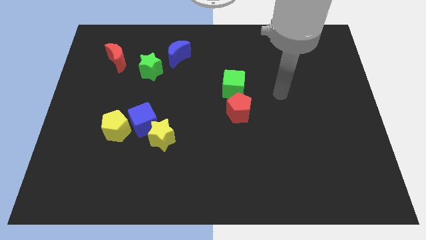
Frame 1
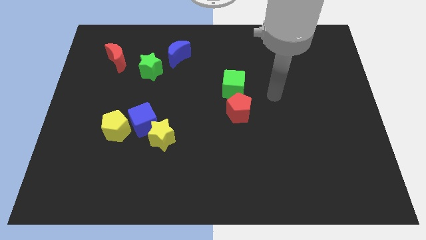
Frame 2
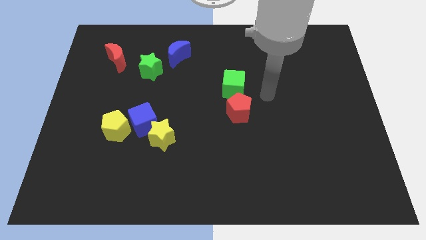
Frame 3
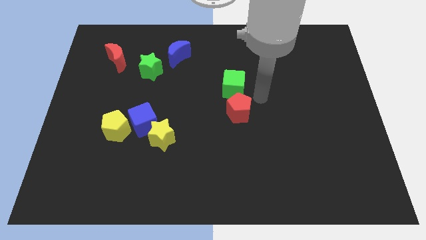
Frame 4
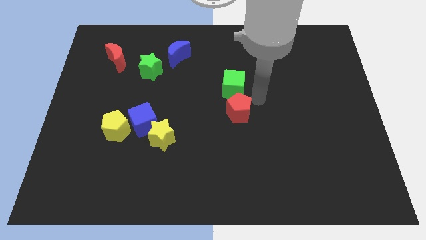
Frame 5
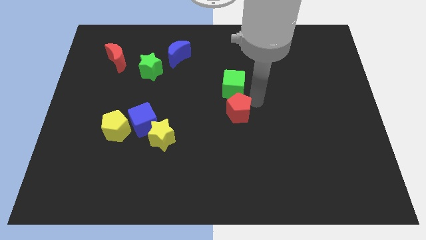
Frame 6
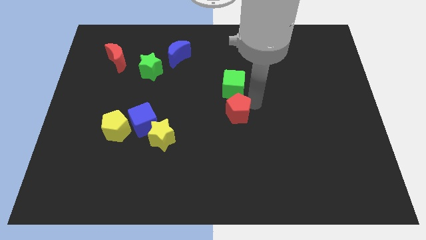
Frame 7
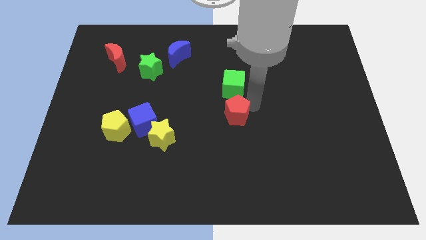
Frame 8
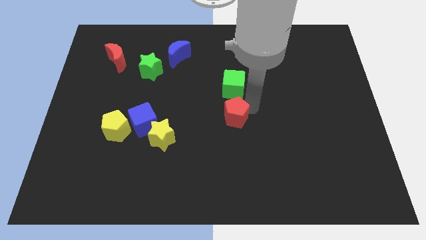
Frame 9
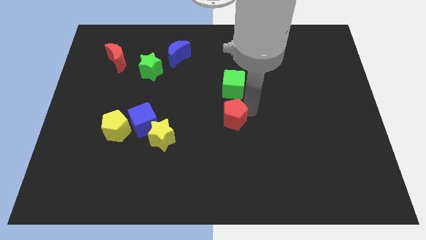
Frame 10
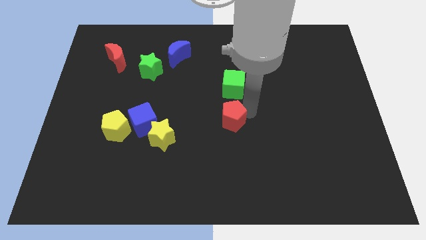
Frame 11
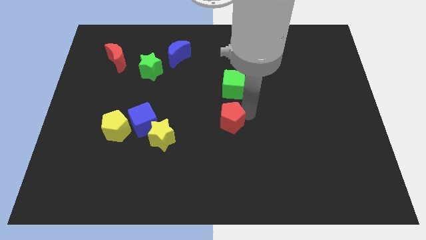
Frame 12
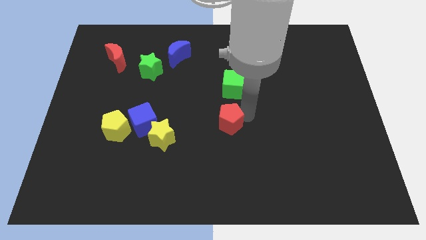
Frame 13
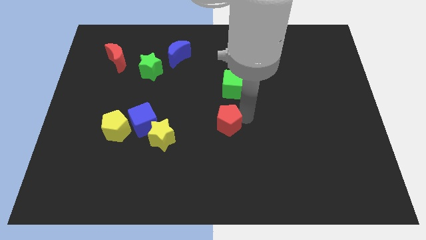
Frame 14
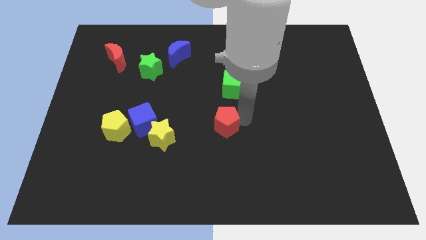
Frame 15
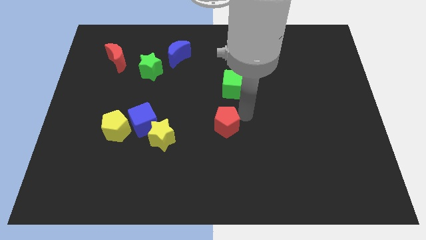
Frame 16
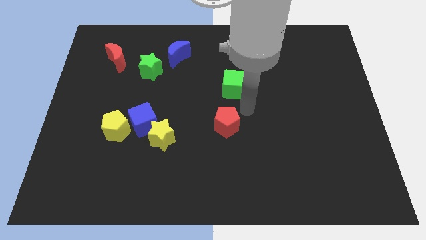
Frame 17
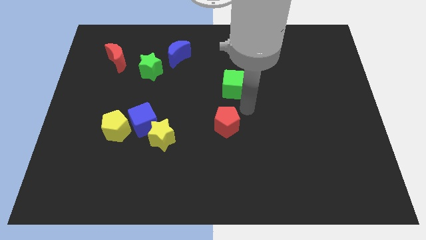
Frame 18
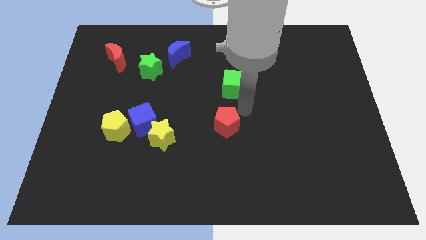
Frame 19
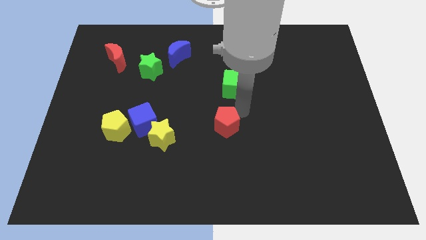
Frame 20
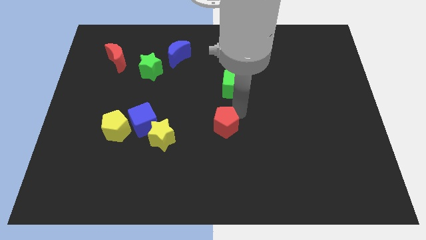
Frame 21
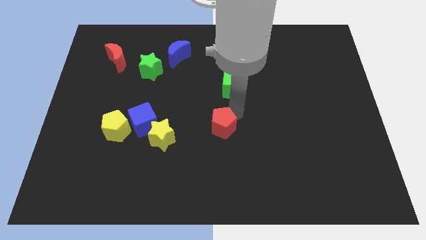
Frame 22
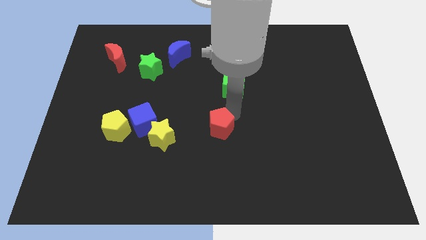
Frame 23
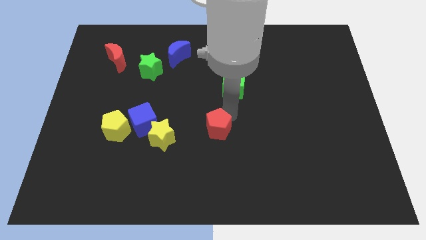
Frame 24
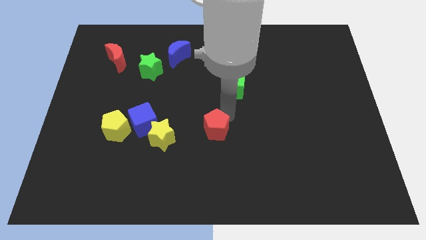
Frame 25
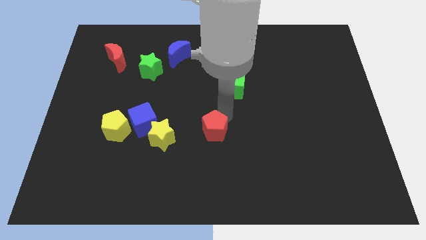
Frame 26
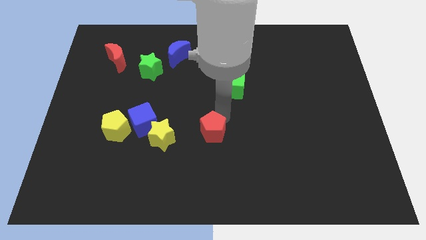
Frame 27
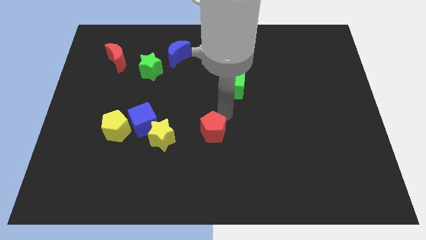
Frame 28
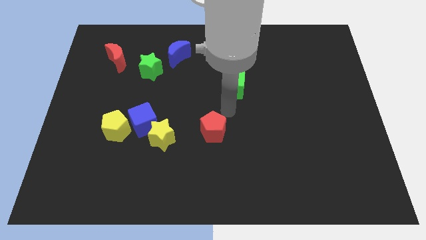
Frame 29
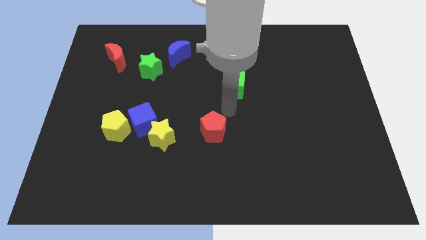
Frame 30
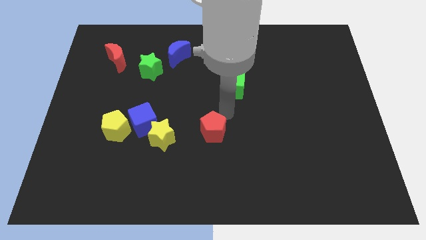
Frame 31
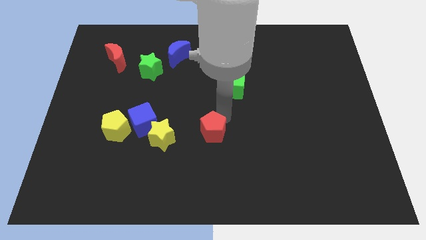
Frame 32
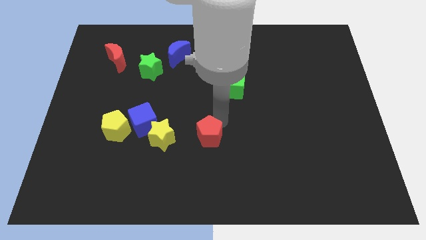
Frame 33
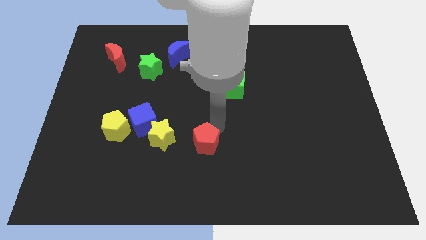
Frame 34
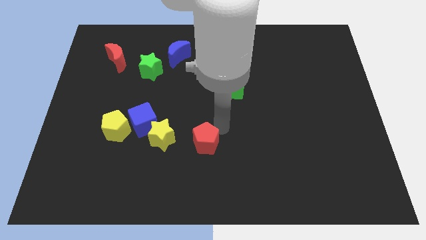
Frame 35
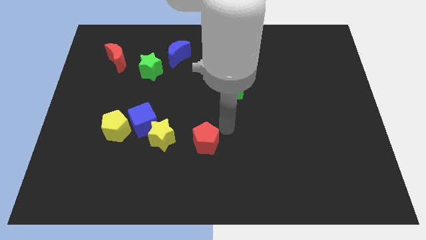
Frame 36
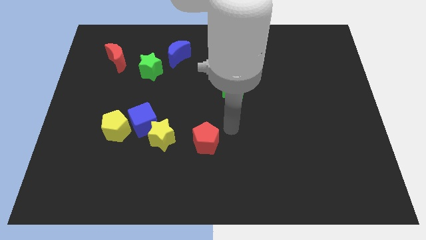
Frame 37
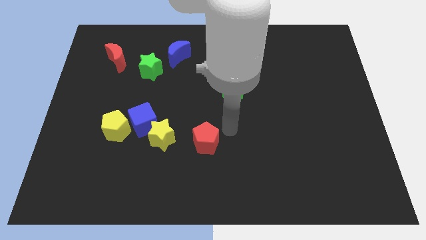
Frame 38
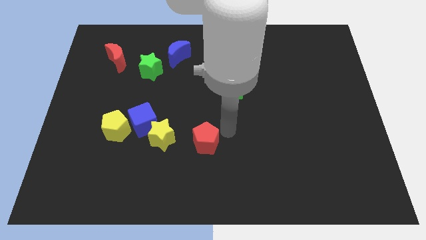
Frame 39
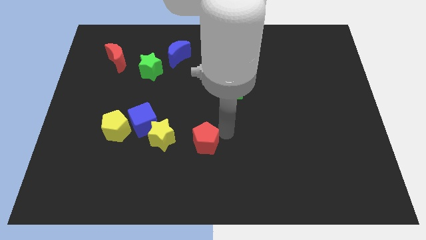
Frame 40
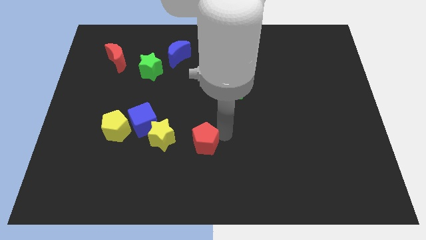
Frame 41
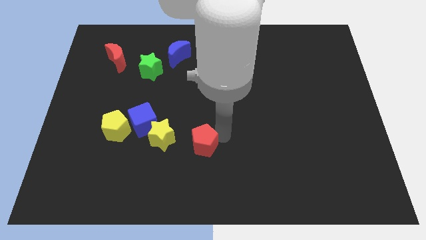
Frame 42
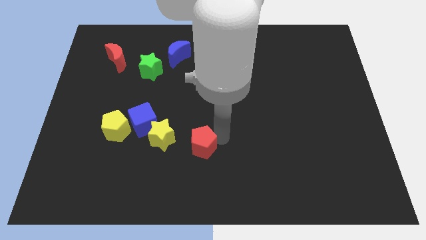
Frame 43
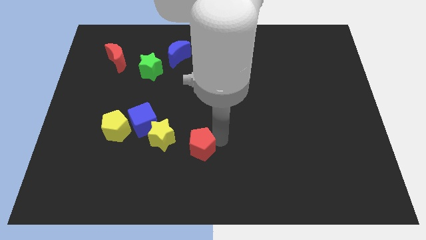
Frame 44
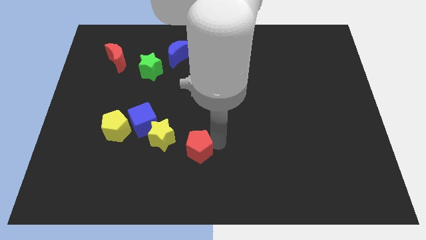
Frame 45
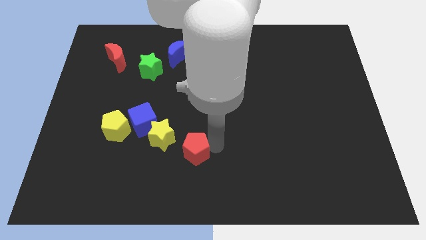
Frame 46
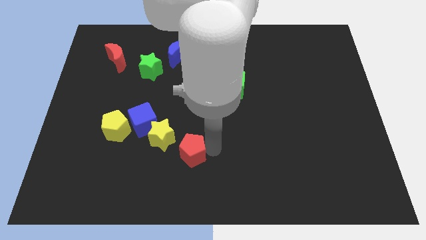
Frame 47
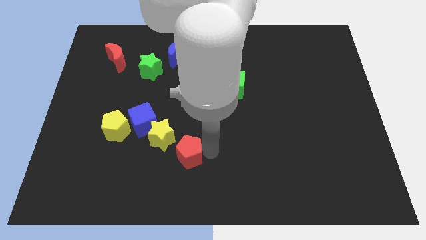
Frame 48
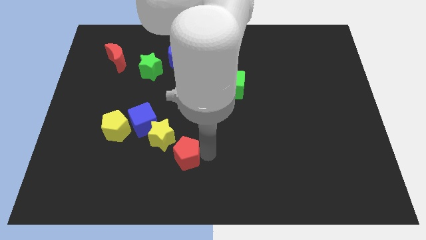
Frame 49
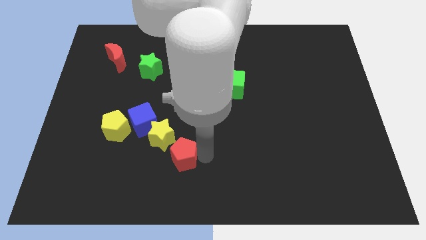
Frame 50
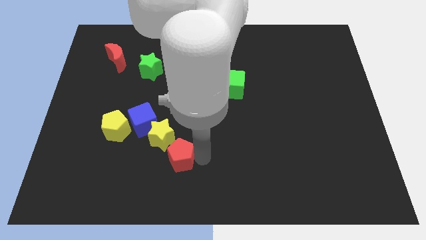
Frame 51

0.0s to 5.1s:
move the red pentagon to the bottom right of the blue cube

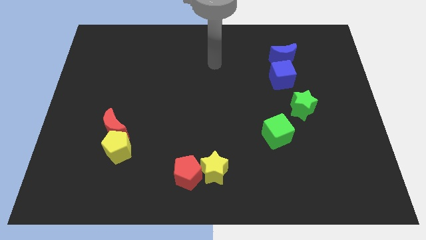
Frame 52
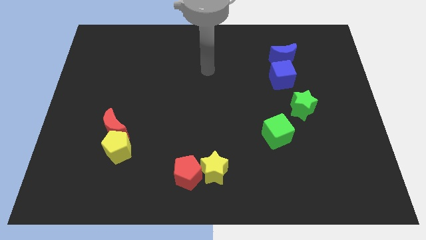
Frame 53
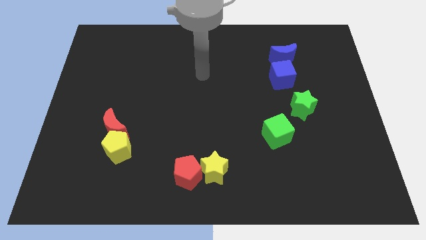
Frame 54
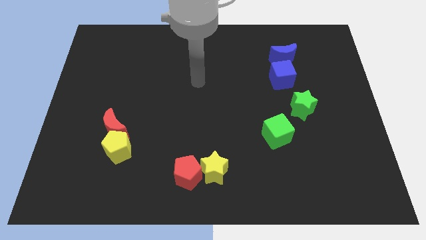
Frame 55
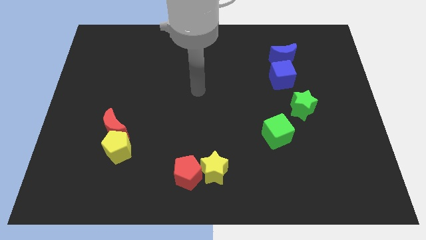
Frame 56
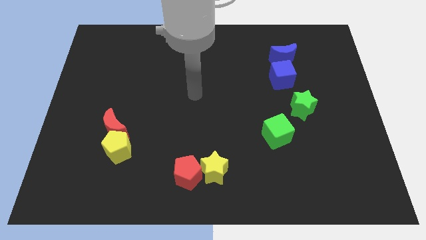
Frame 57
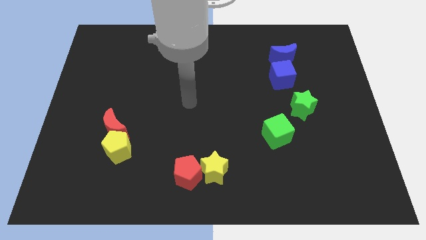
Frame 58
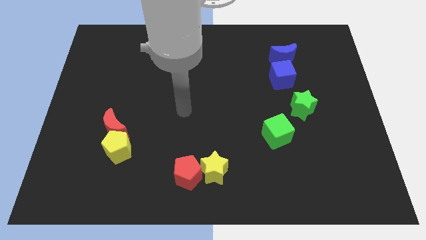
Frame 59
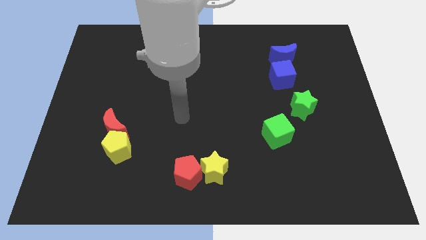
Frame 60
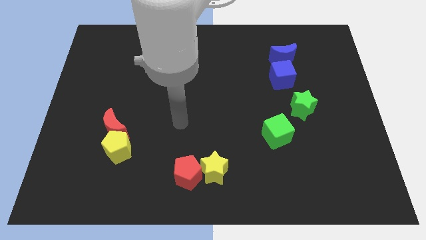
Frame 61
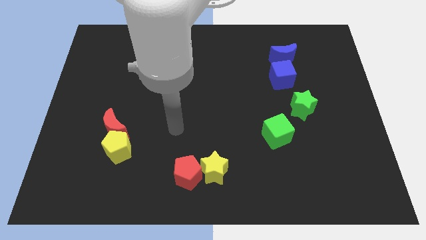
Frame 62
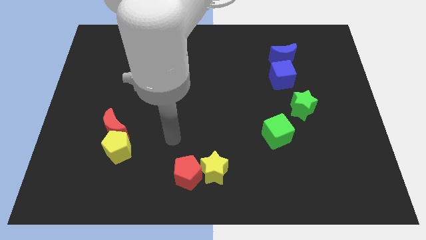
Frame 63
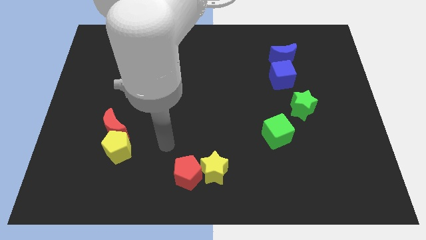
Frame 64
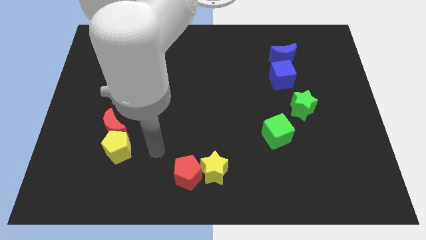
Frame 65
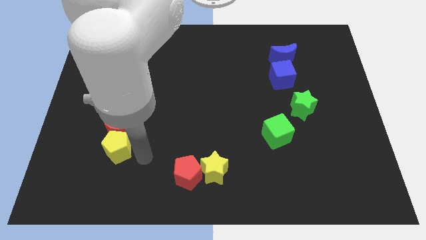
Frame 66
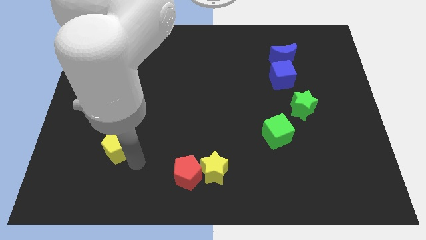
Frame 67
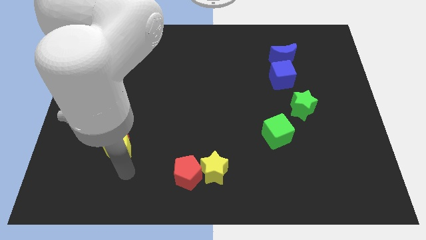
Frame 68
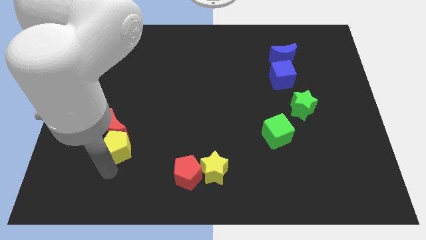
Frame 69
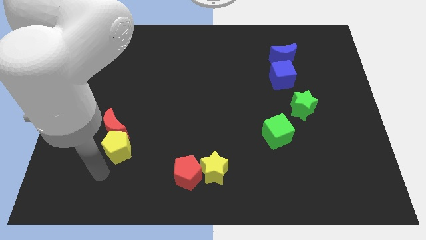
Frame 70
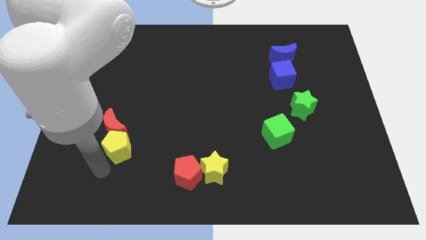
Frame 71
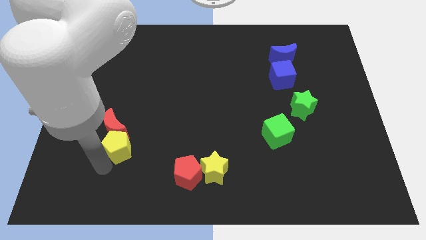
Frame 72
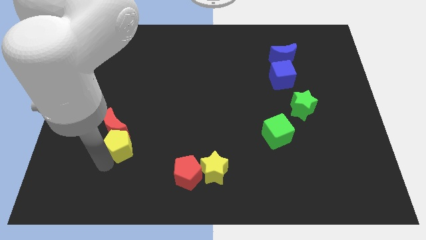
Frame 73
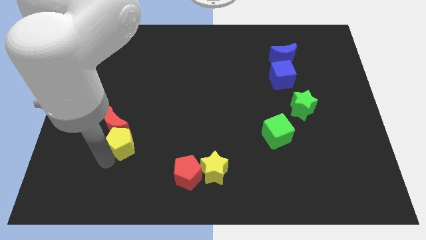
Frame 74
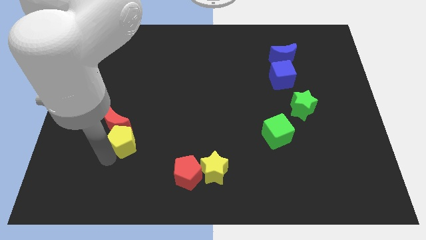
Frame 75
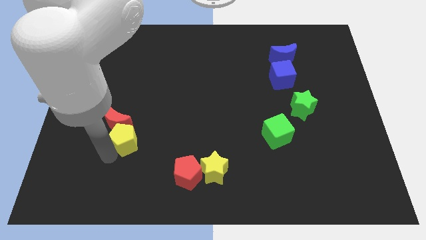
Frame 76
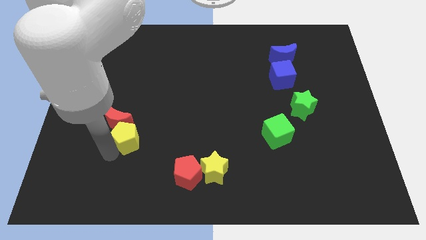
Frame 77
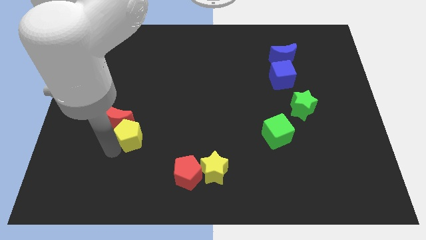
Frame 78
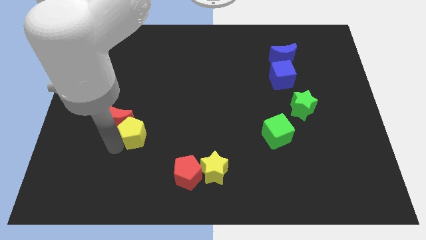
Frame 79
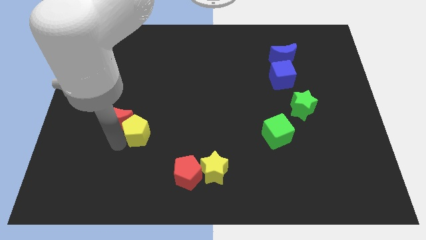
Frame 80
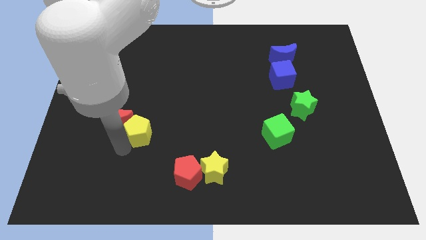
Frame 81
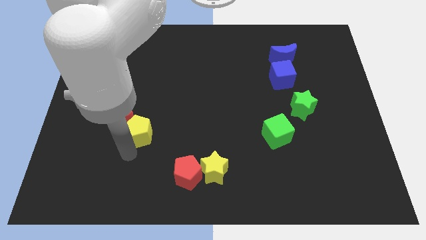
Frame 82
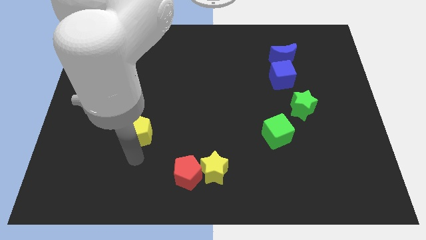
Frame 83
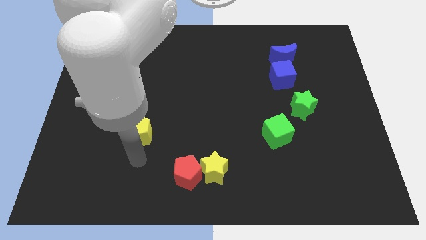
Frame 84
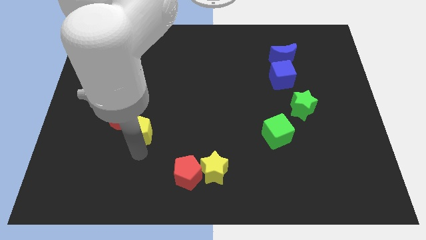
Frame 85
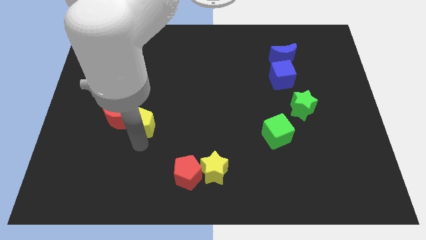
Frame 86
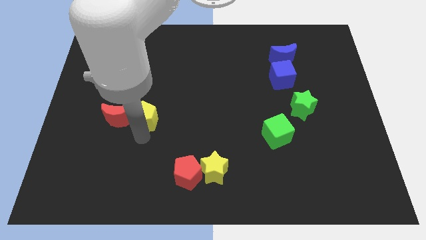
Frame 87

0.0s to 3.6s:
push the yellow pentagon to the top right side of the red moon
